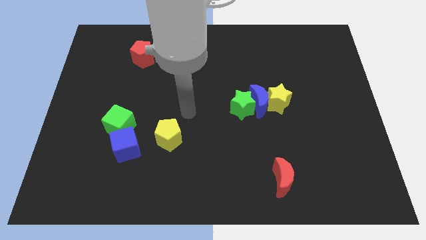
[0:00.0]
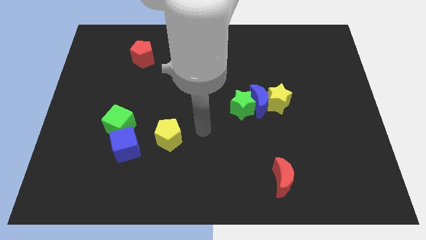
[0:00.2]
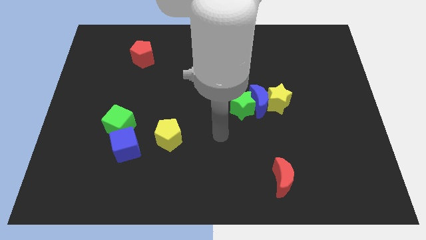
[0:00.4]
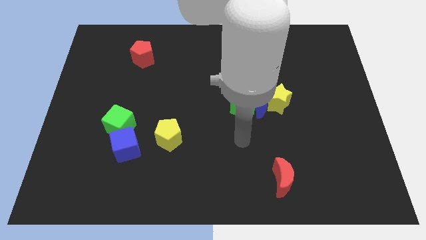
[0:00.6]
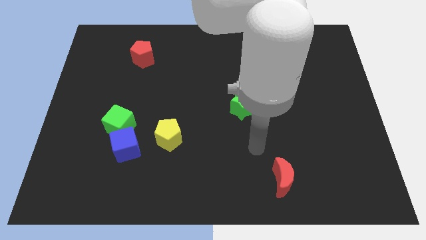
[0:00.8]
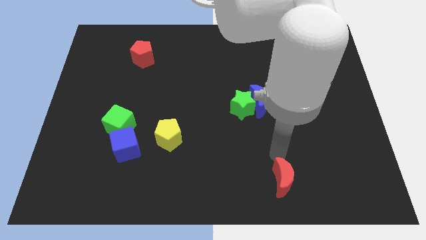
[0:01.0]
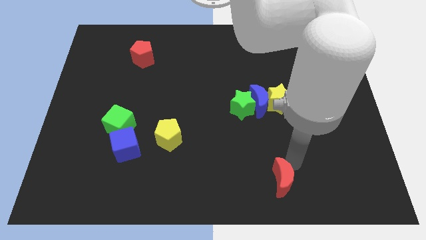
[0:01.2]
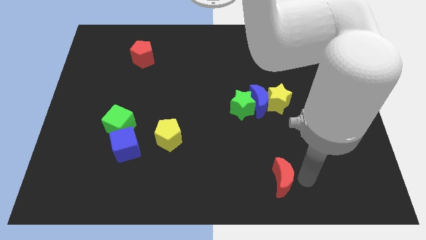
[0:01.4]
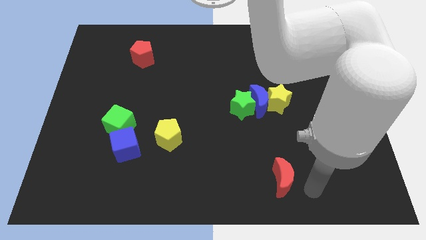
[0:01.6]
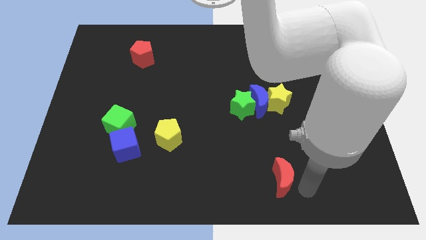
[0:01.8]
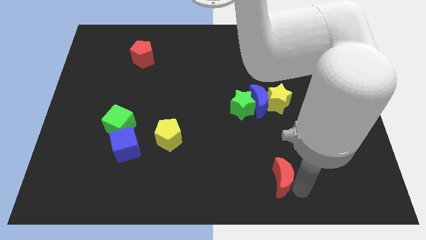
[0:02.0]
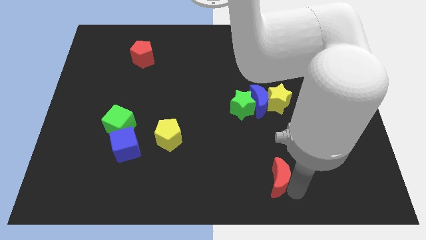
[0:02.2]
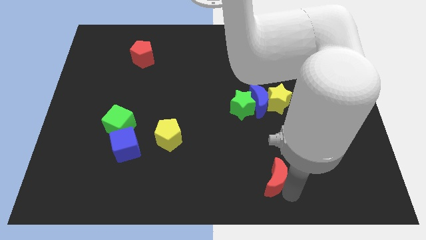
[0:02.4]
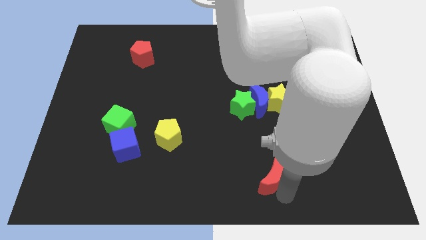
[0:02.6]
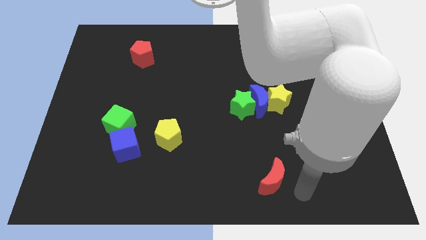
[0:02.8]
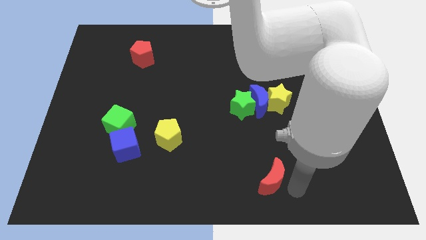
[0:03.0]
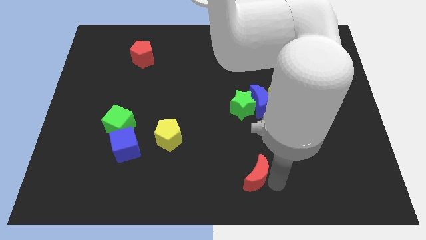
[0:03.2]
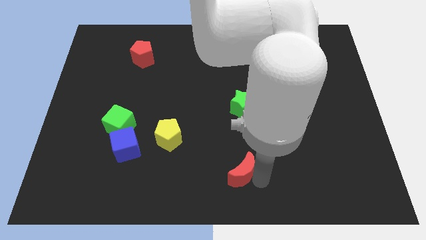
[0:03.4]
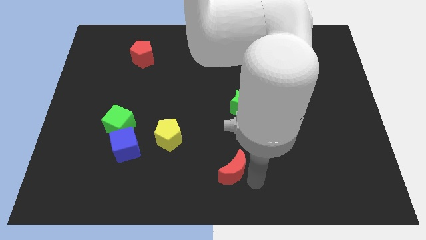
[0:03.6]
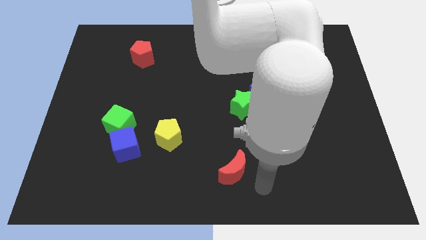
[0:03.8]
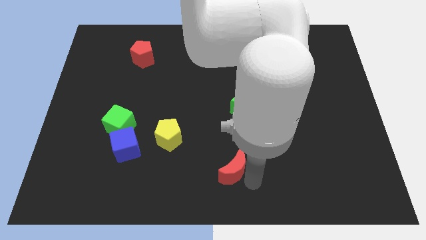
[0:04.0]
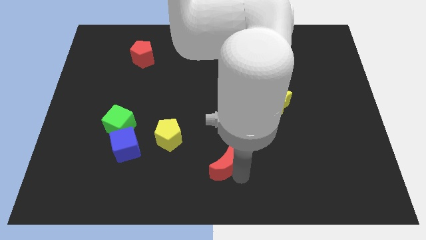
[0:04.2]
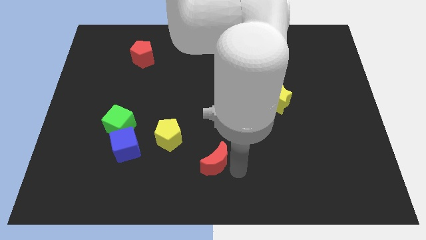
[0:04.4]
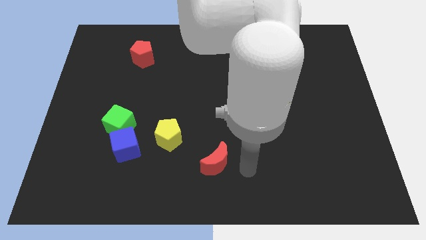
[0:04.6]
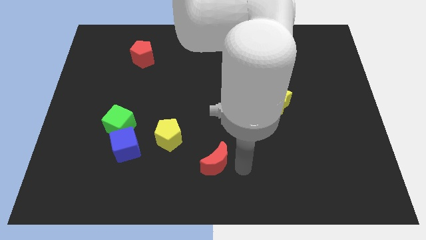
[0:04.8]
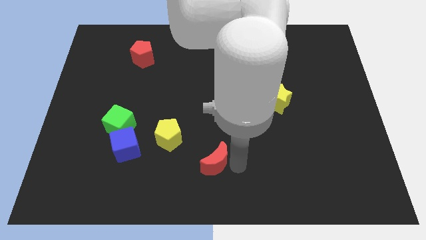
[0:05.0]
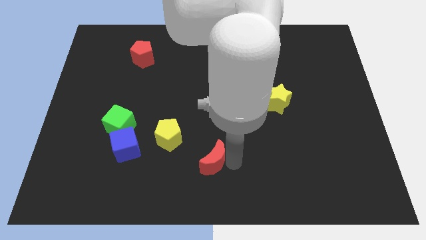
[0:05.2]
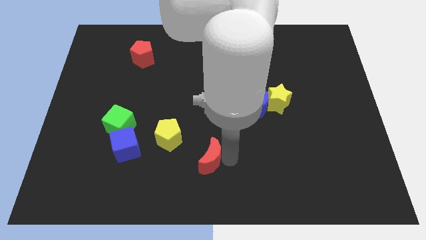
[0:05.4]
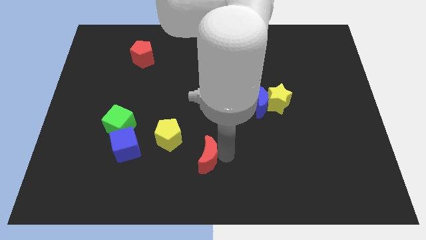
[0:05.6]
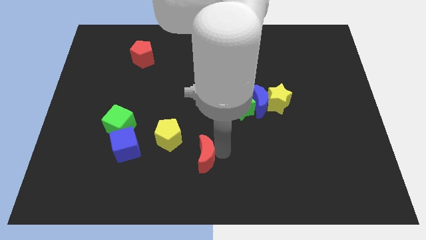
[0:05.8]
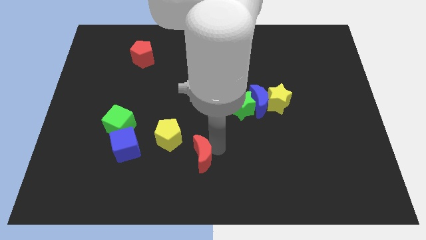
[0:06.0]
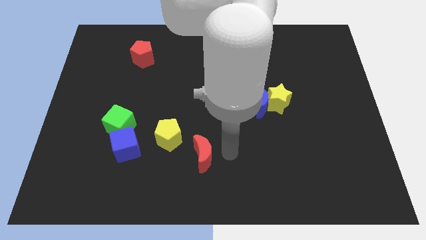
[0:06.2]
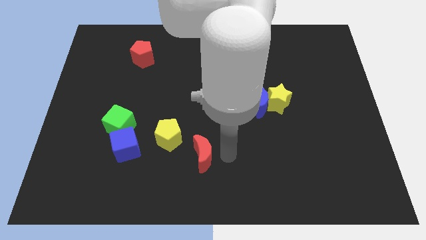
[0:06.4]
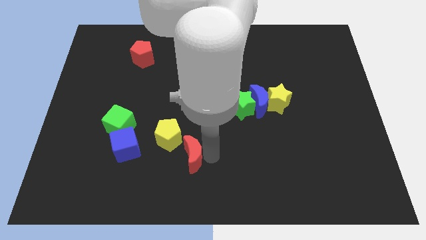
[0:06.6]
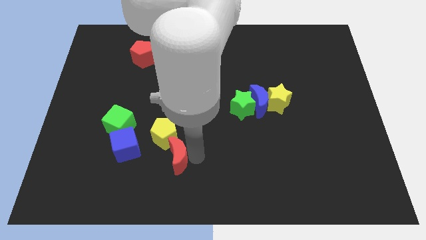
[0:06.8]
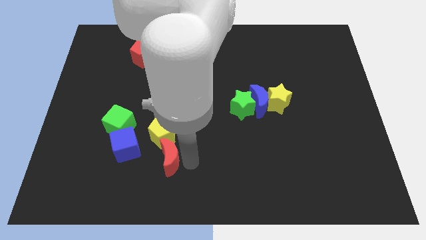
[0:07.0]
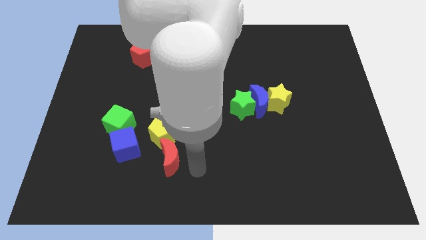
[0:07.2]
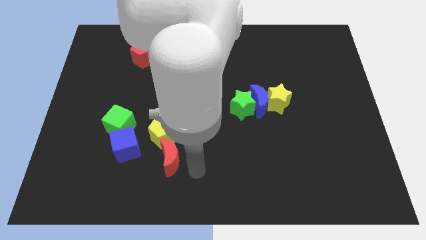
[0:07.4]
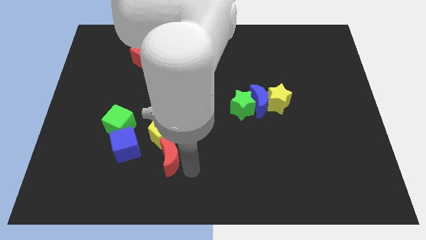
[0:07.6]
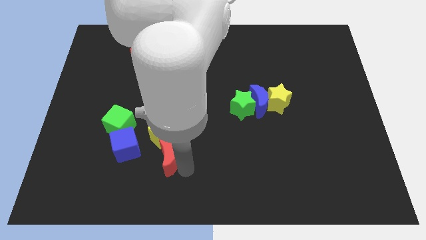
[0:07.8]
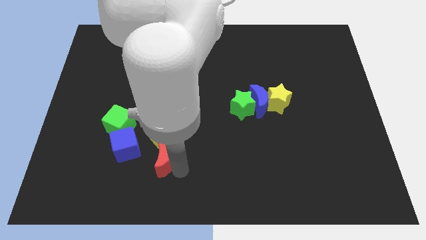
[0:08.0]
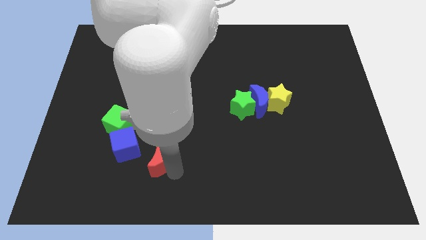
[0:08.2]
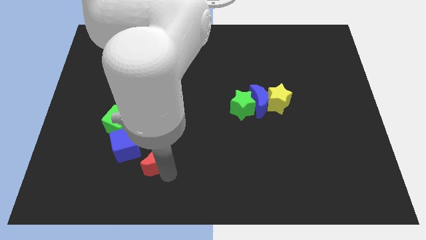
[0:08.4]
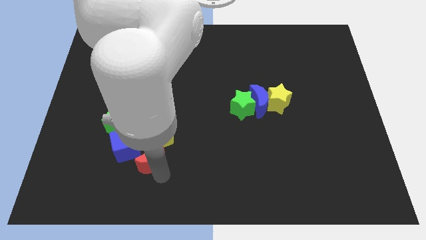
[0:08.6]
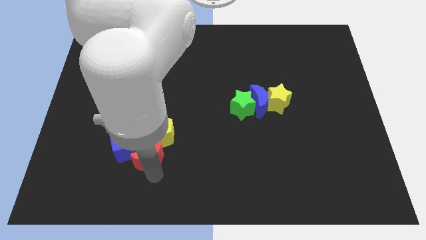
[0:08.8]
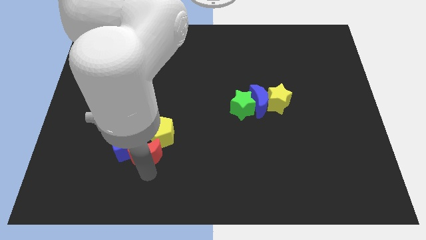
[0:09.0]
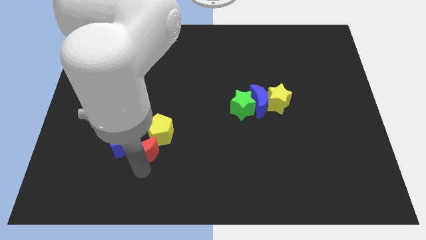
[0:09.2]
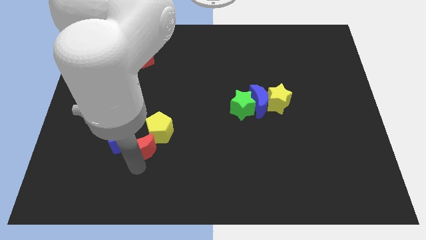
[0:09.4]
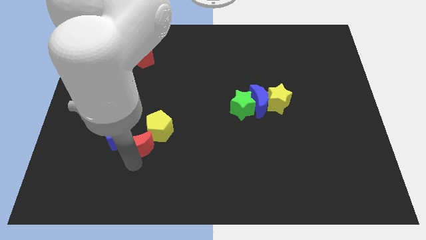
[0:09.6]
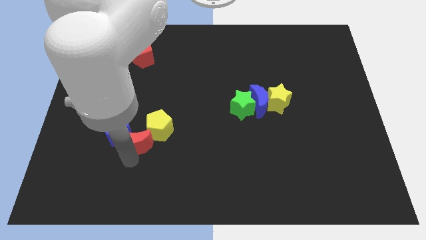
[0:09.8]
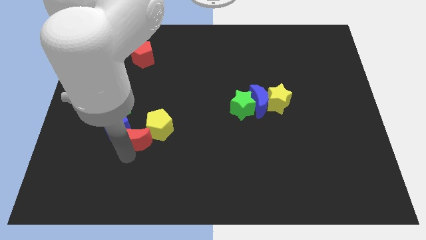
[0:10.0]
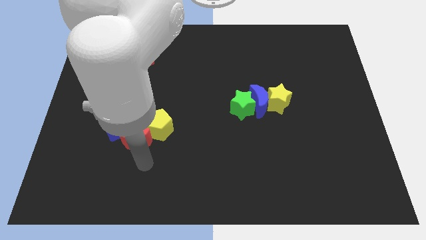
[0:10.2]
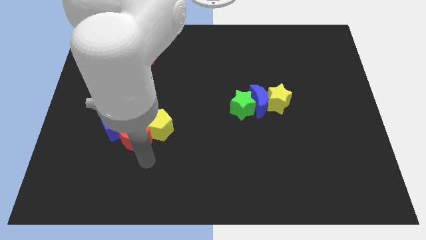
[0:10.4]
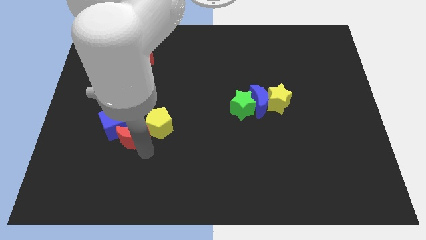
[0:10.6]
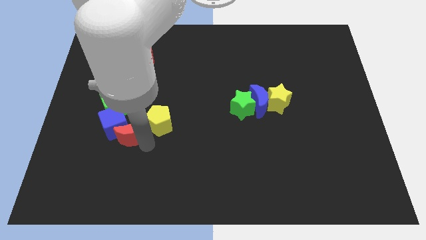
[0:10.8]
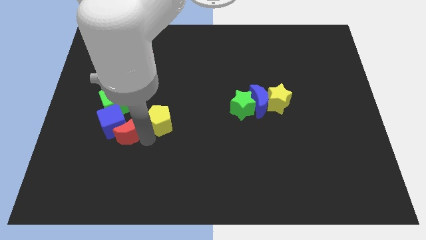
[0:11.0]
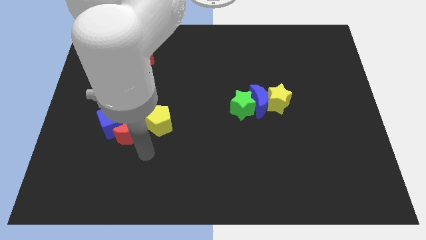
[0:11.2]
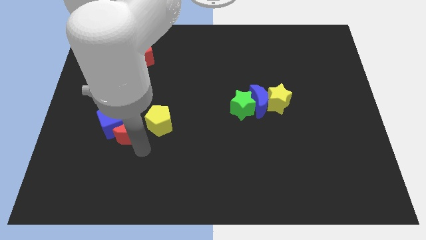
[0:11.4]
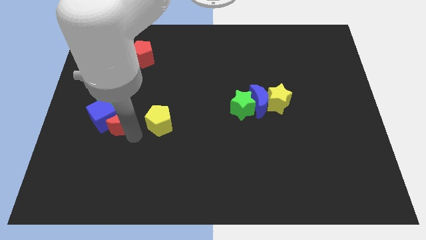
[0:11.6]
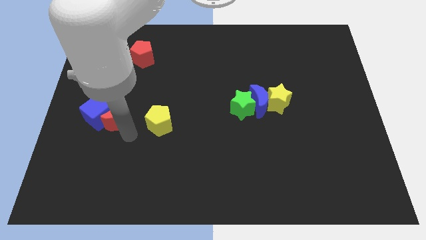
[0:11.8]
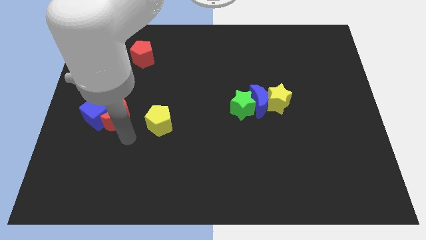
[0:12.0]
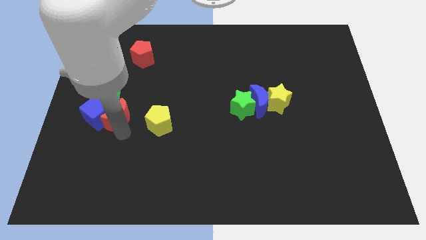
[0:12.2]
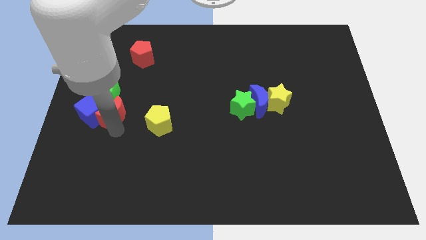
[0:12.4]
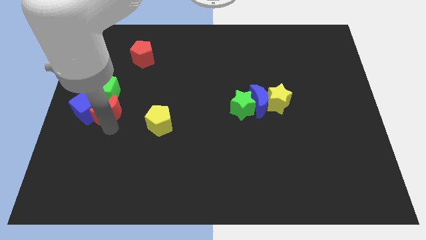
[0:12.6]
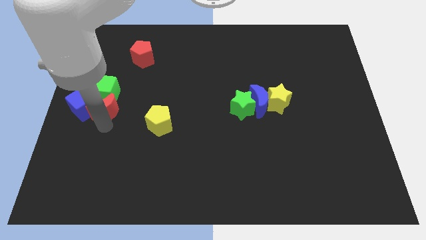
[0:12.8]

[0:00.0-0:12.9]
slide the red moon next to the green cube

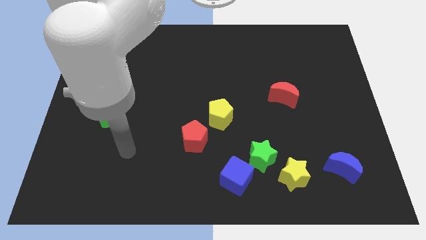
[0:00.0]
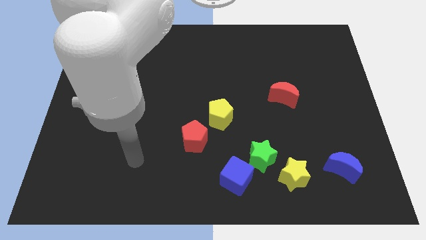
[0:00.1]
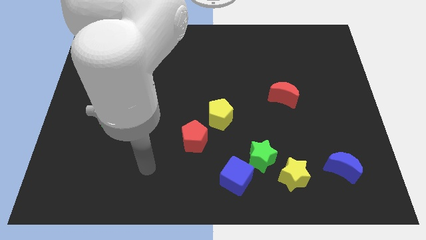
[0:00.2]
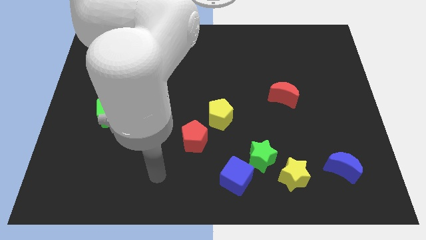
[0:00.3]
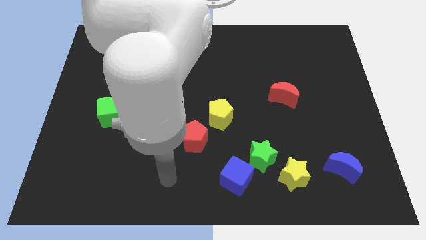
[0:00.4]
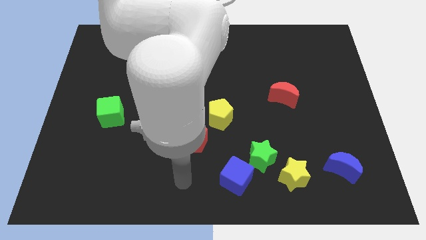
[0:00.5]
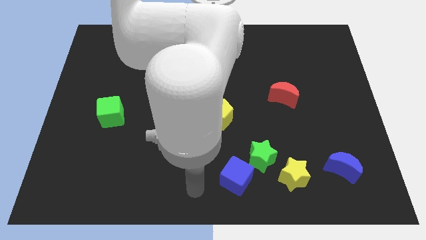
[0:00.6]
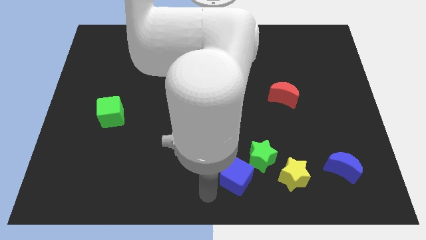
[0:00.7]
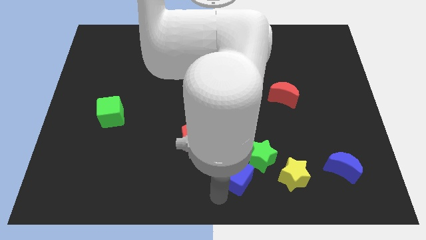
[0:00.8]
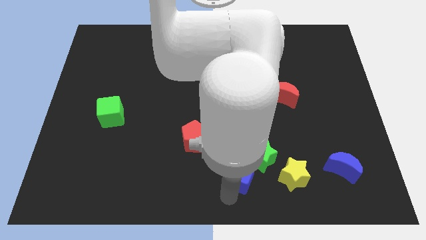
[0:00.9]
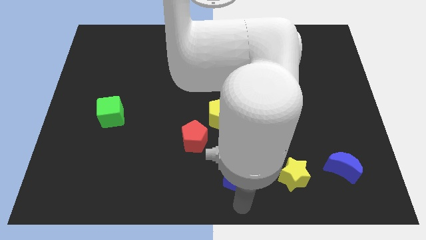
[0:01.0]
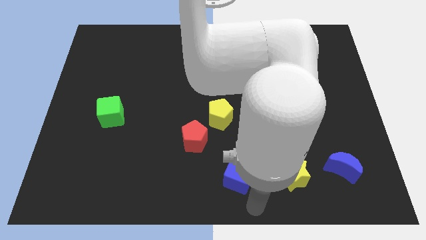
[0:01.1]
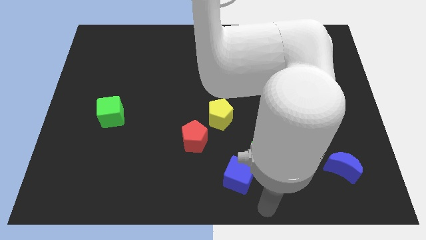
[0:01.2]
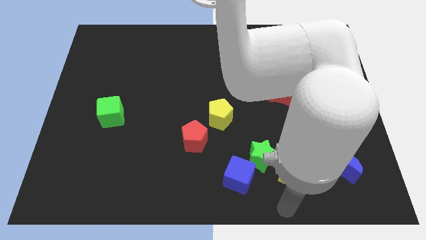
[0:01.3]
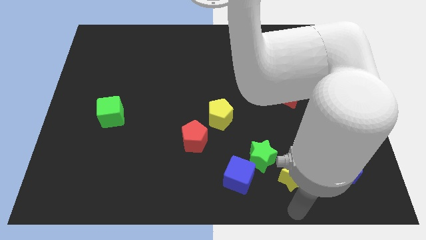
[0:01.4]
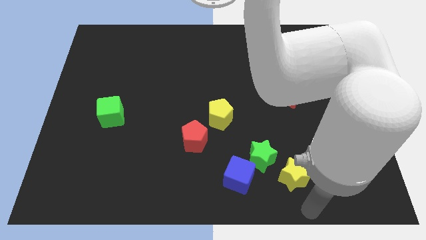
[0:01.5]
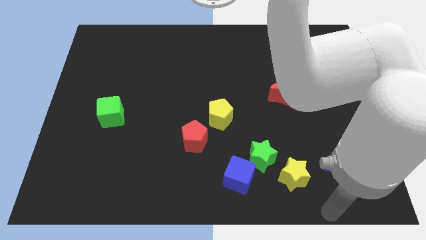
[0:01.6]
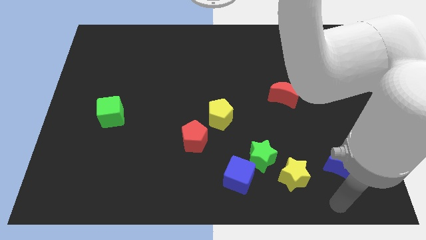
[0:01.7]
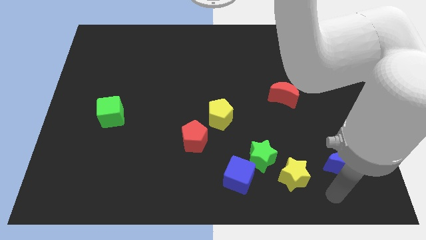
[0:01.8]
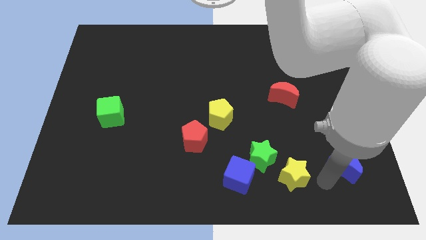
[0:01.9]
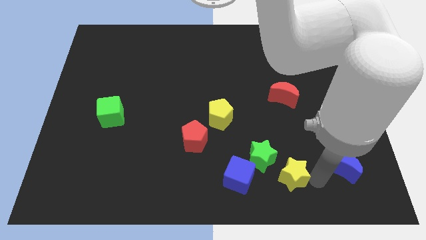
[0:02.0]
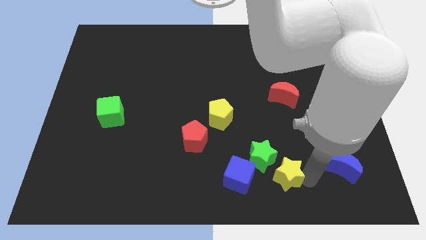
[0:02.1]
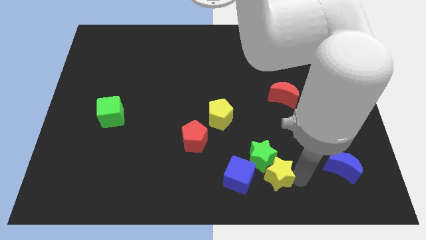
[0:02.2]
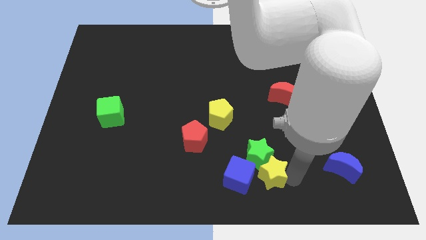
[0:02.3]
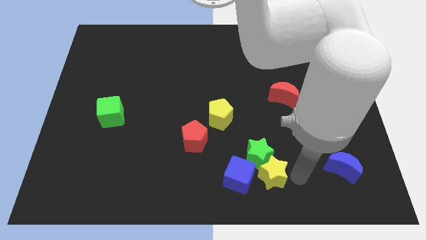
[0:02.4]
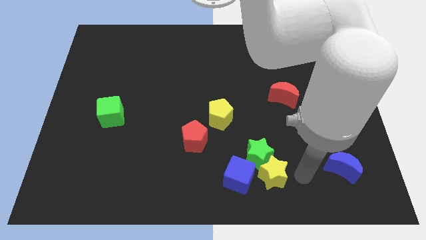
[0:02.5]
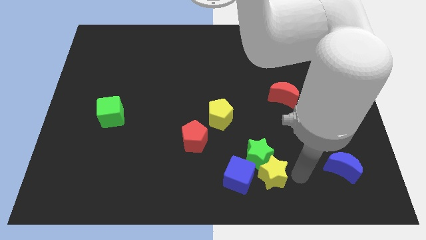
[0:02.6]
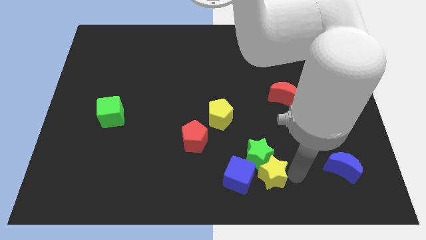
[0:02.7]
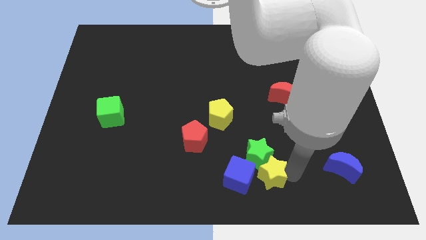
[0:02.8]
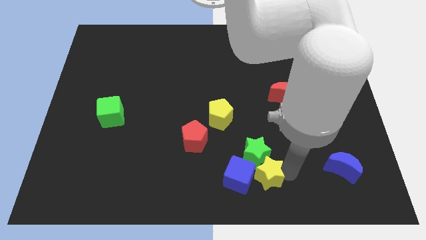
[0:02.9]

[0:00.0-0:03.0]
move the yellow star next to the blue cube
